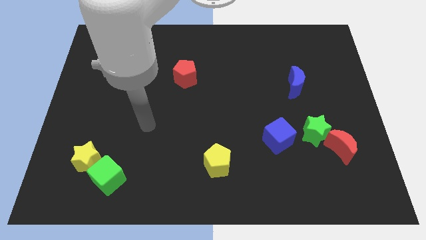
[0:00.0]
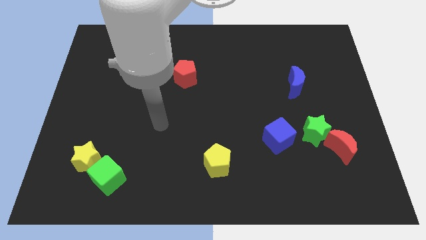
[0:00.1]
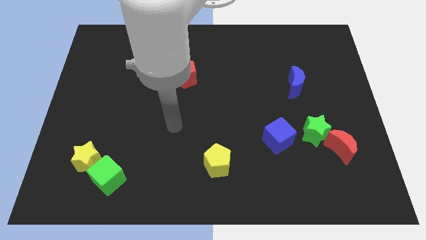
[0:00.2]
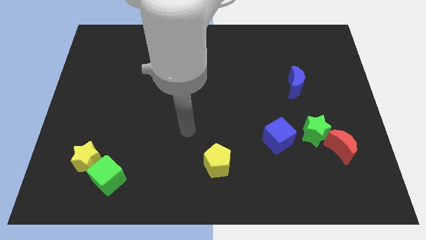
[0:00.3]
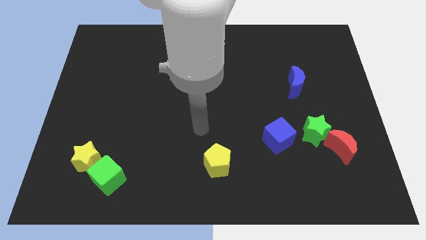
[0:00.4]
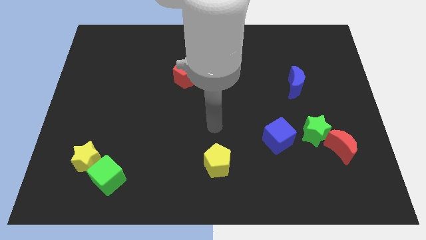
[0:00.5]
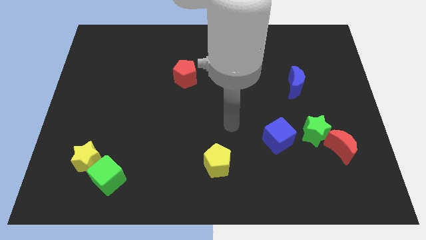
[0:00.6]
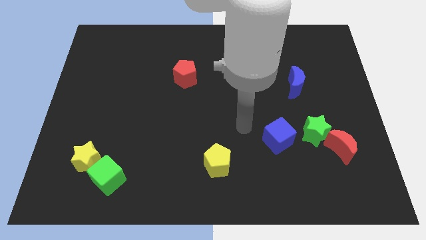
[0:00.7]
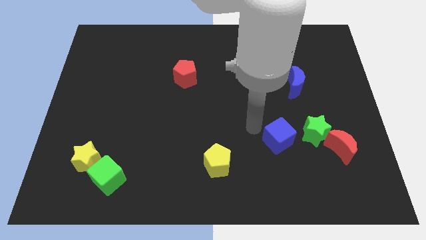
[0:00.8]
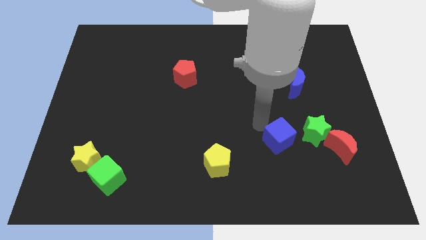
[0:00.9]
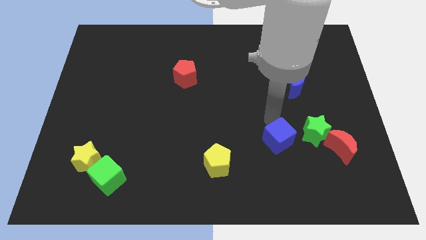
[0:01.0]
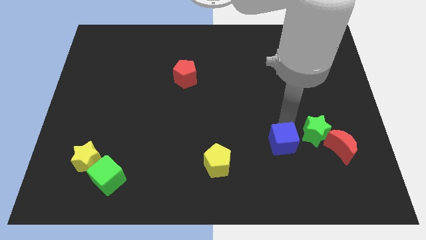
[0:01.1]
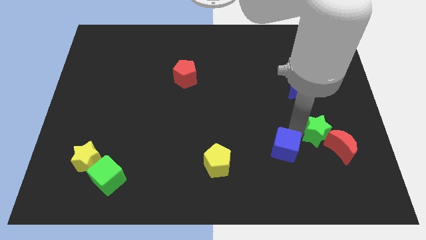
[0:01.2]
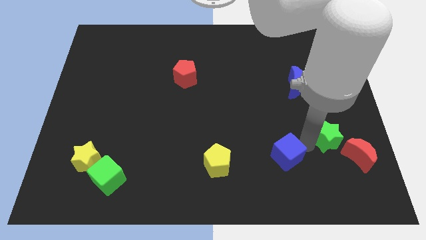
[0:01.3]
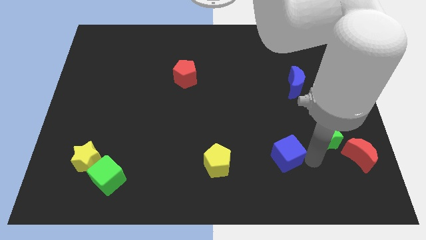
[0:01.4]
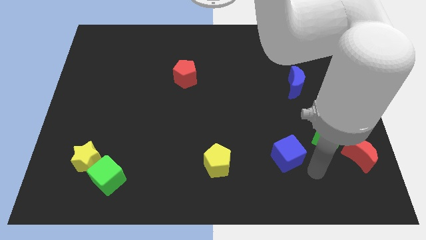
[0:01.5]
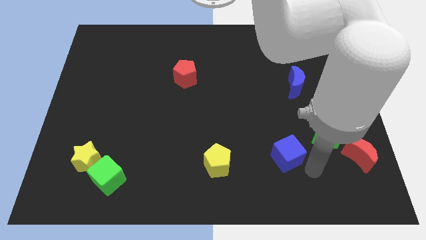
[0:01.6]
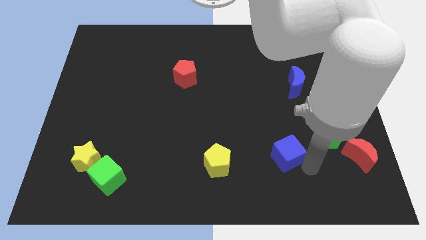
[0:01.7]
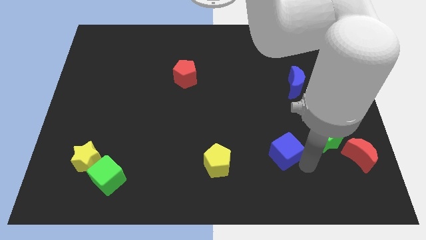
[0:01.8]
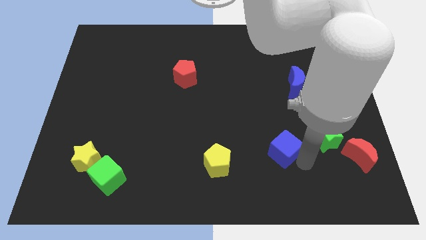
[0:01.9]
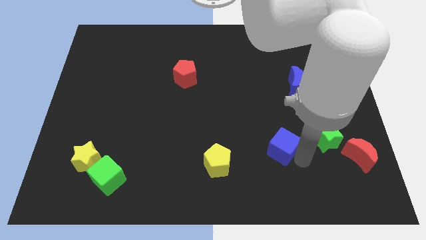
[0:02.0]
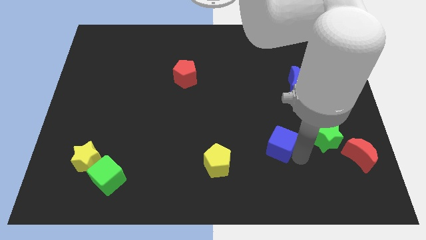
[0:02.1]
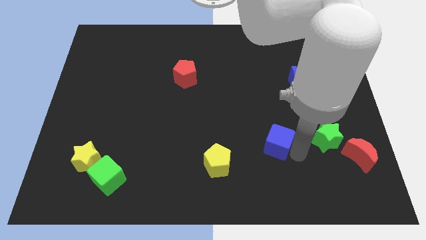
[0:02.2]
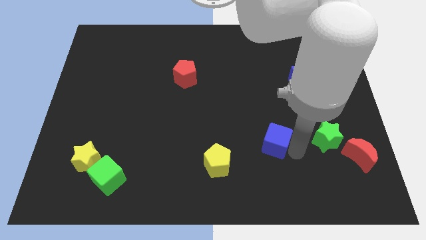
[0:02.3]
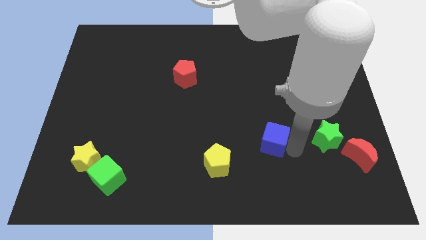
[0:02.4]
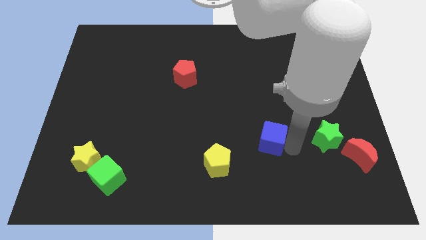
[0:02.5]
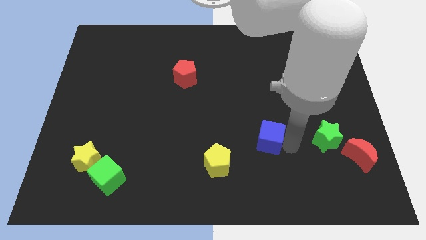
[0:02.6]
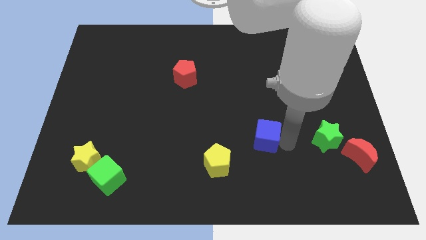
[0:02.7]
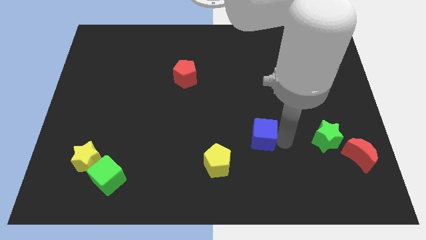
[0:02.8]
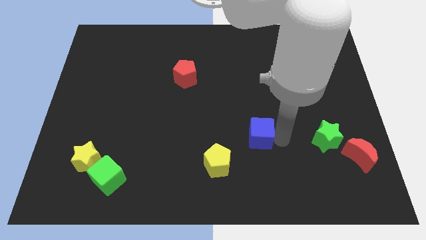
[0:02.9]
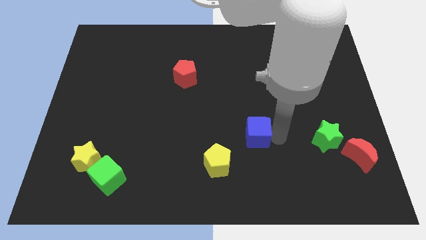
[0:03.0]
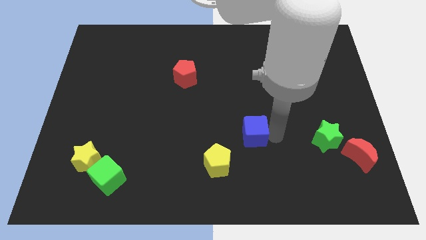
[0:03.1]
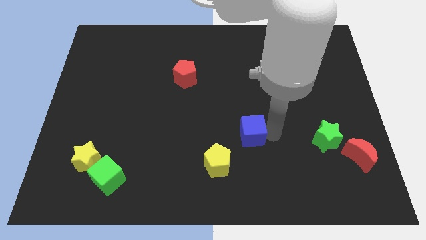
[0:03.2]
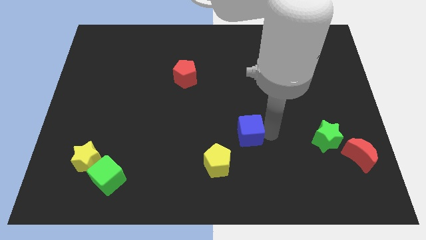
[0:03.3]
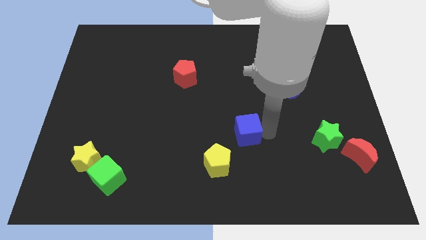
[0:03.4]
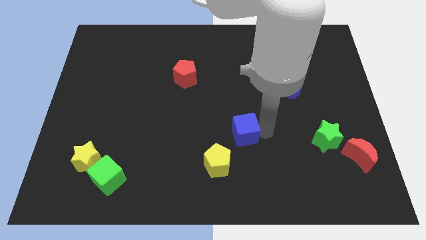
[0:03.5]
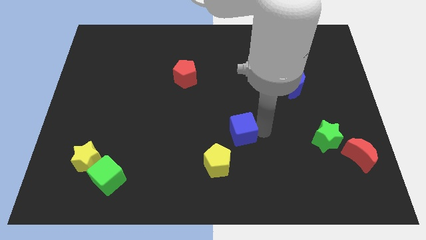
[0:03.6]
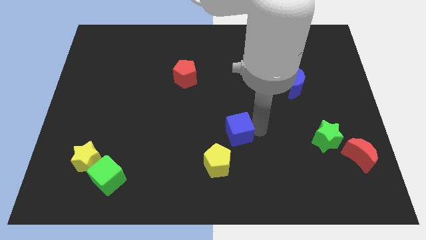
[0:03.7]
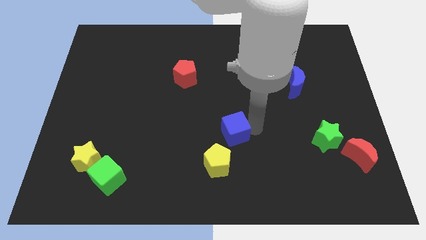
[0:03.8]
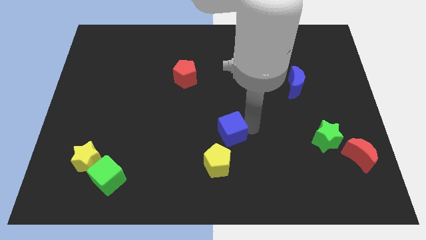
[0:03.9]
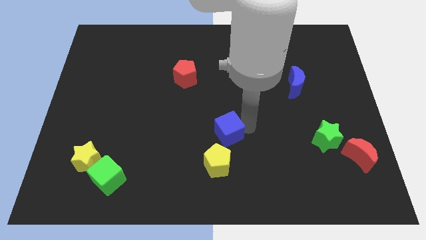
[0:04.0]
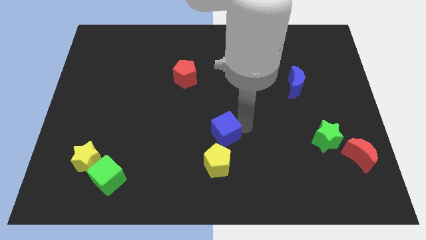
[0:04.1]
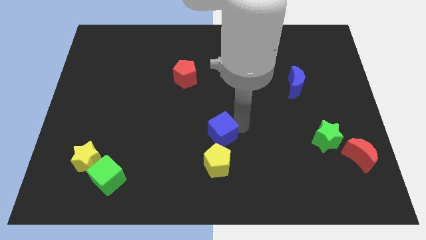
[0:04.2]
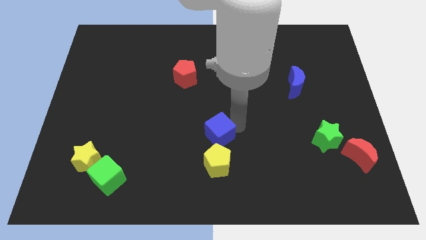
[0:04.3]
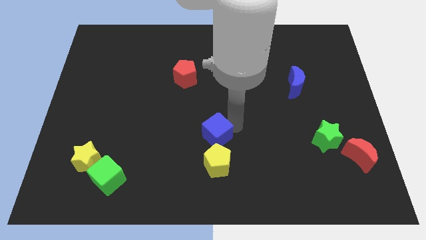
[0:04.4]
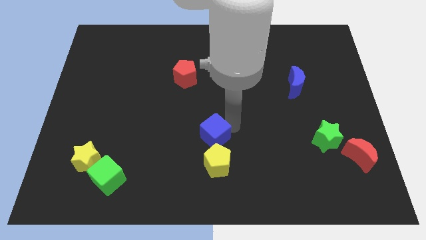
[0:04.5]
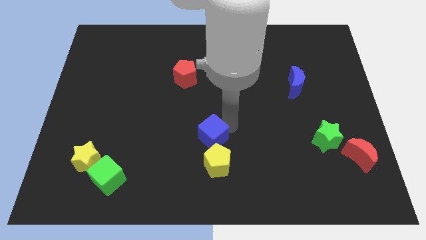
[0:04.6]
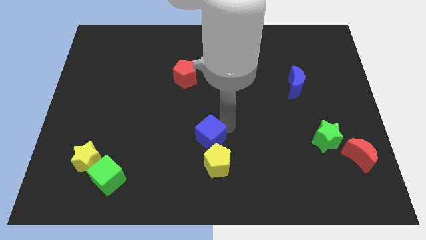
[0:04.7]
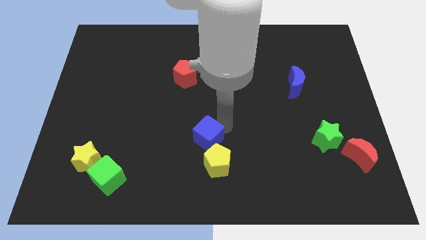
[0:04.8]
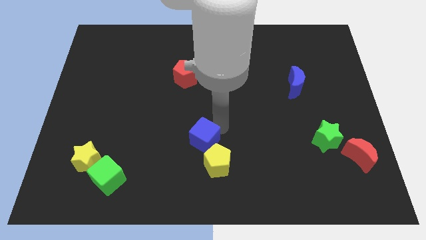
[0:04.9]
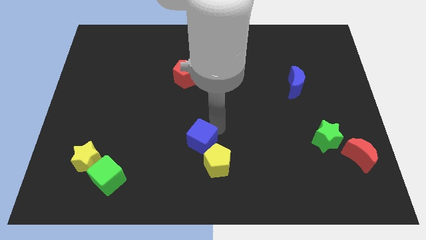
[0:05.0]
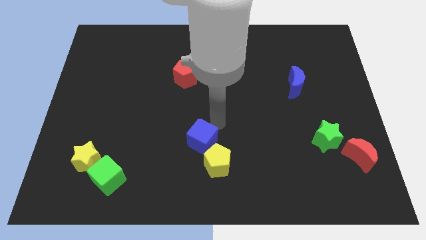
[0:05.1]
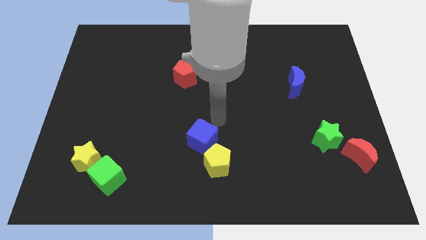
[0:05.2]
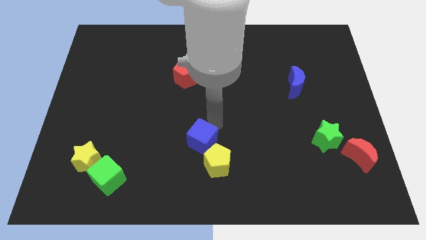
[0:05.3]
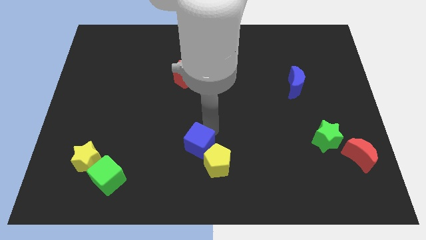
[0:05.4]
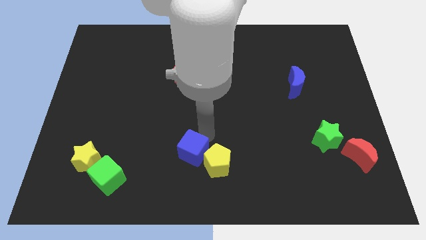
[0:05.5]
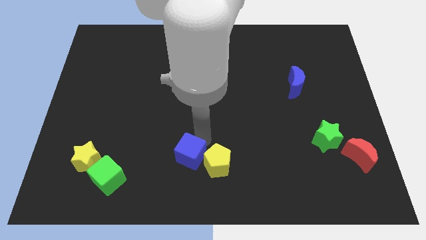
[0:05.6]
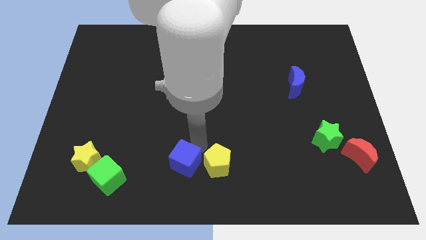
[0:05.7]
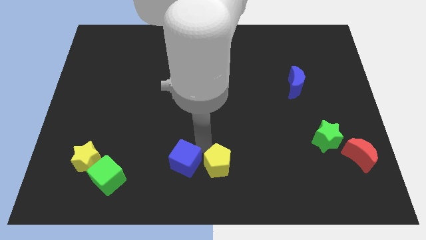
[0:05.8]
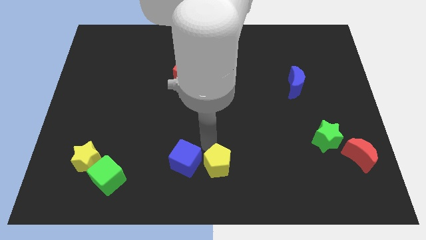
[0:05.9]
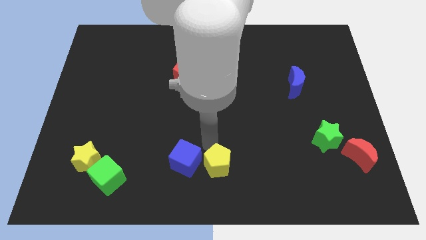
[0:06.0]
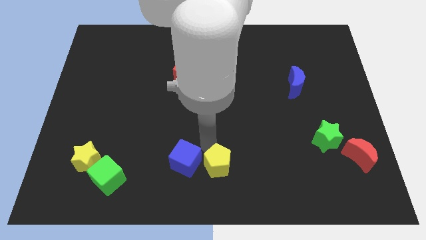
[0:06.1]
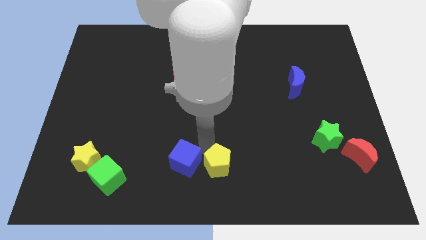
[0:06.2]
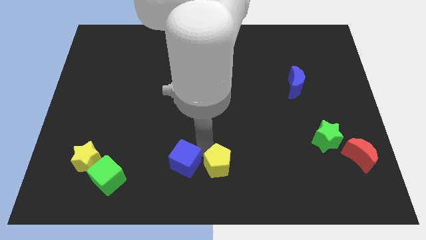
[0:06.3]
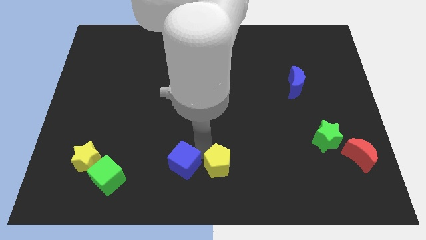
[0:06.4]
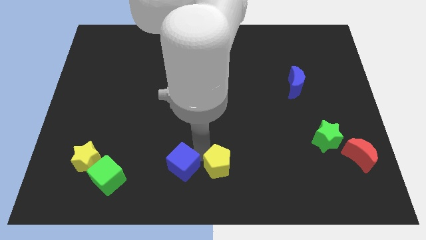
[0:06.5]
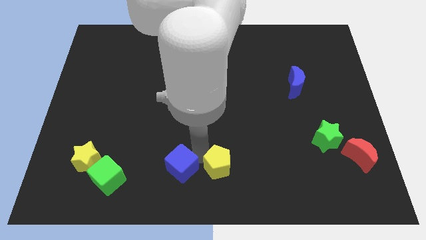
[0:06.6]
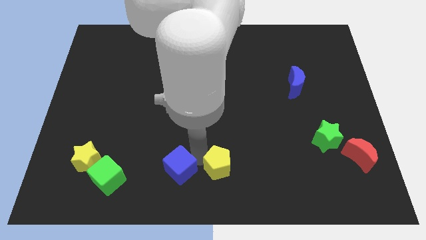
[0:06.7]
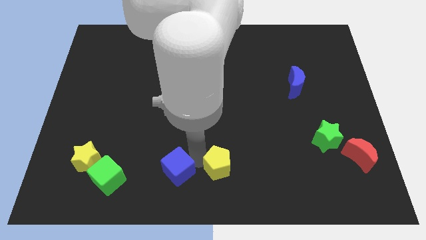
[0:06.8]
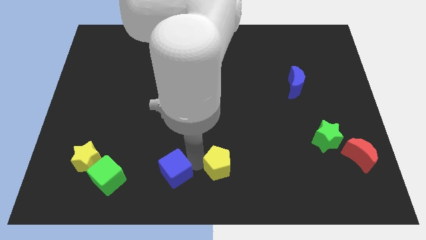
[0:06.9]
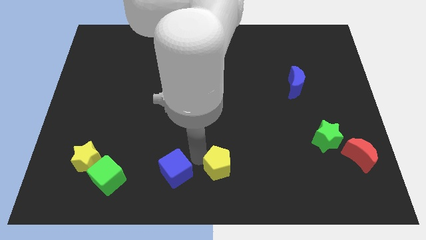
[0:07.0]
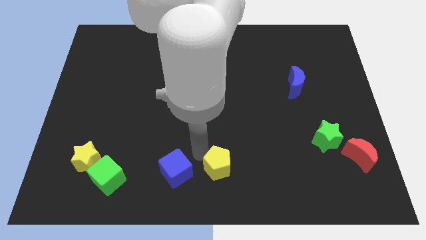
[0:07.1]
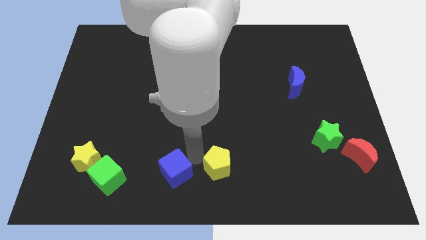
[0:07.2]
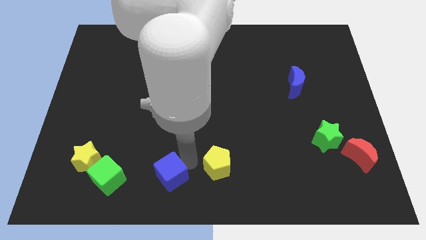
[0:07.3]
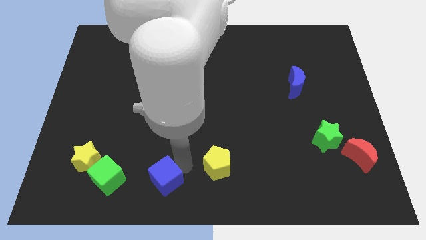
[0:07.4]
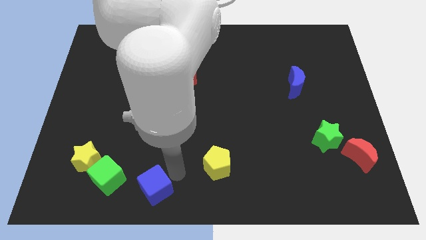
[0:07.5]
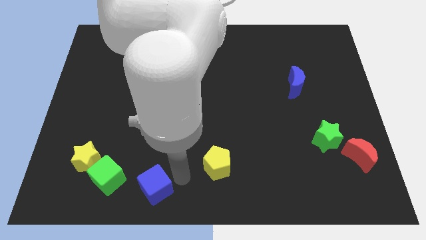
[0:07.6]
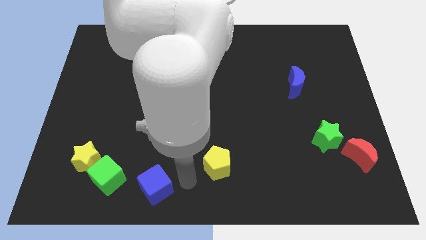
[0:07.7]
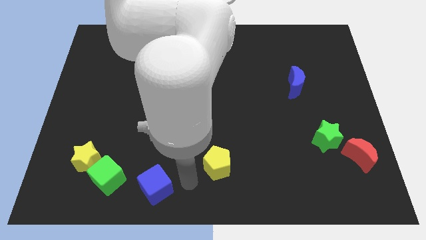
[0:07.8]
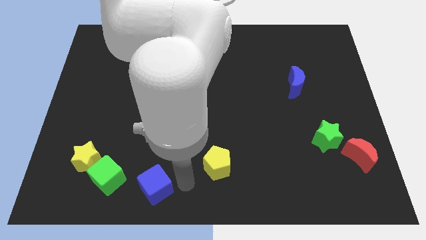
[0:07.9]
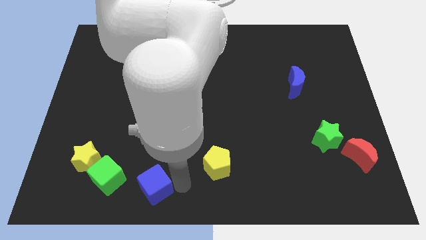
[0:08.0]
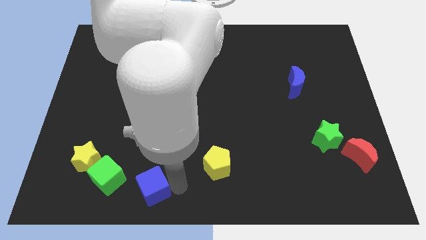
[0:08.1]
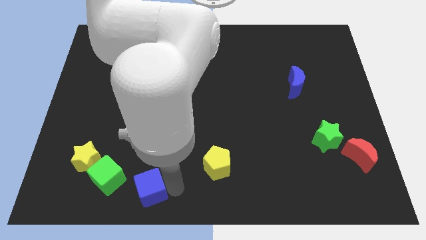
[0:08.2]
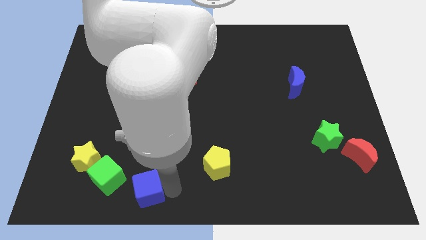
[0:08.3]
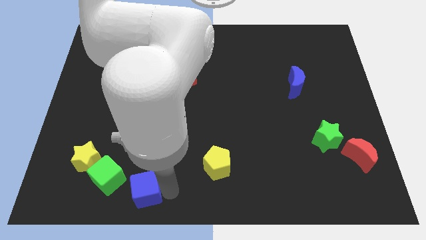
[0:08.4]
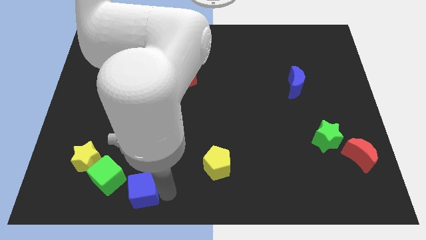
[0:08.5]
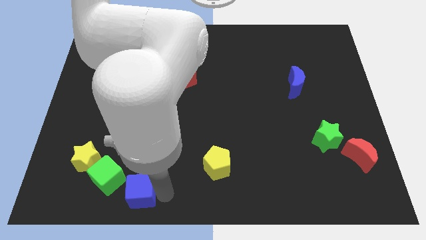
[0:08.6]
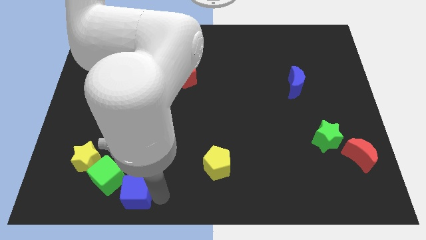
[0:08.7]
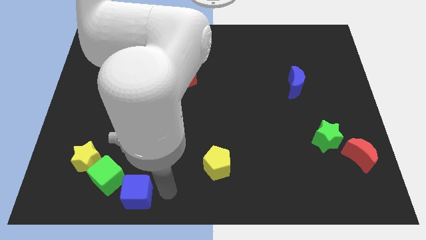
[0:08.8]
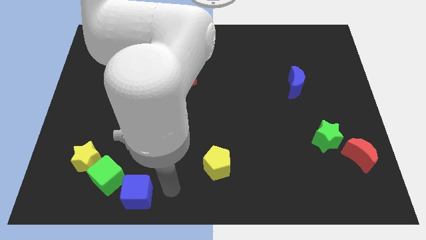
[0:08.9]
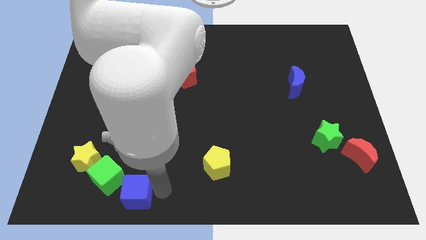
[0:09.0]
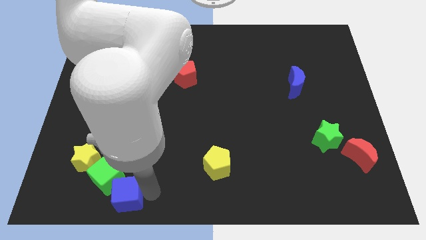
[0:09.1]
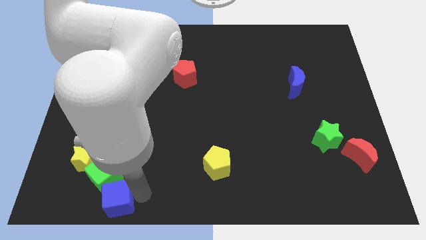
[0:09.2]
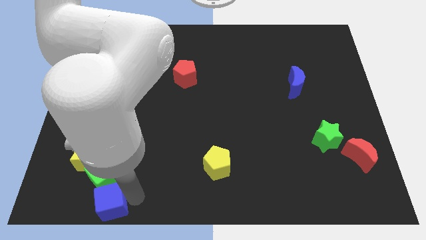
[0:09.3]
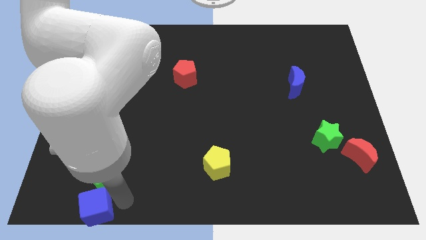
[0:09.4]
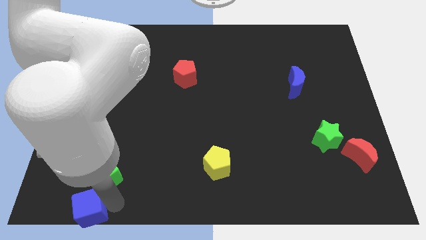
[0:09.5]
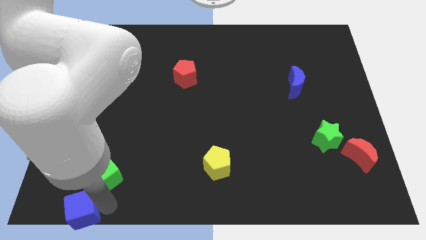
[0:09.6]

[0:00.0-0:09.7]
slide the blue cube to the bottom left corner
